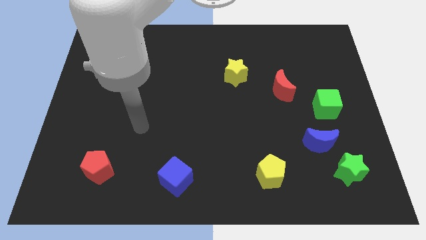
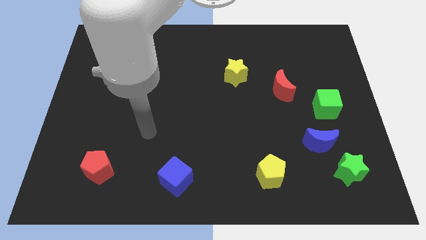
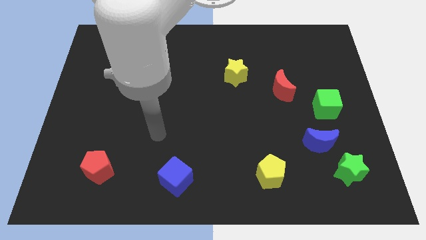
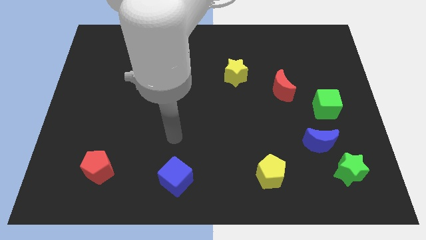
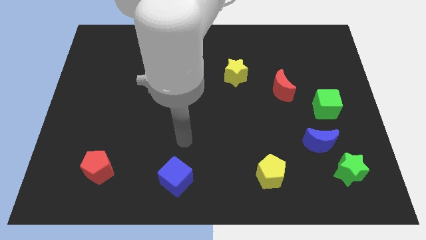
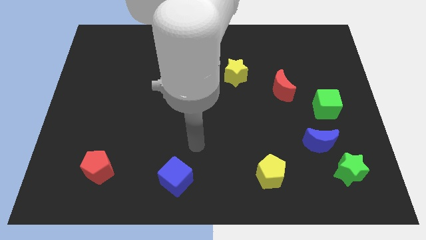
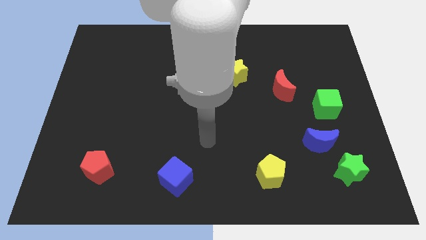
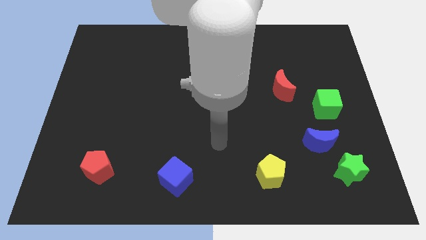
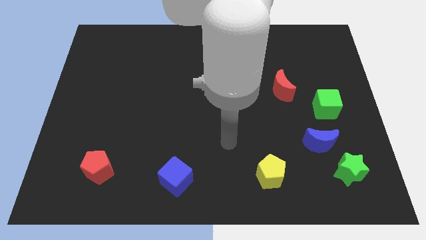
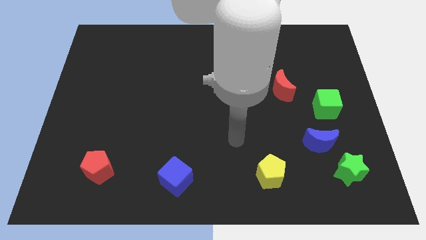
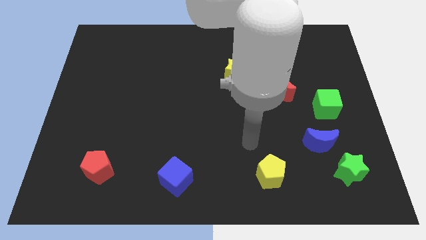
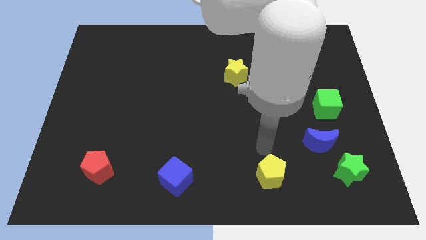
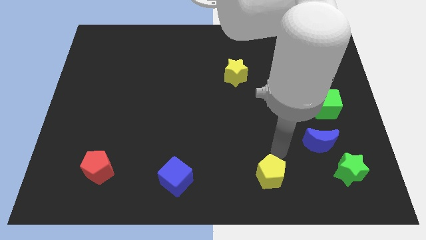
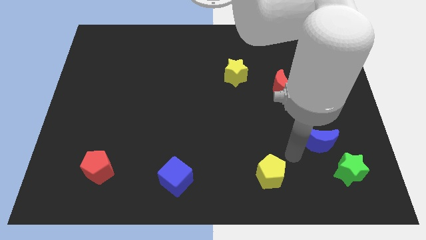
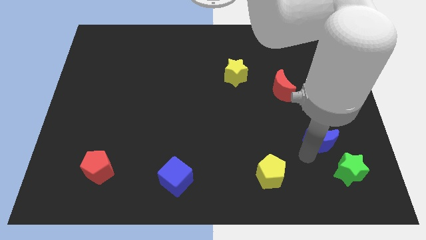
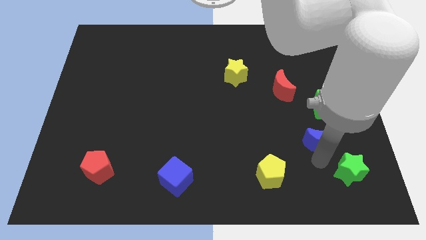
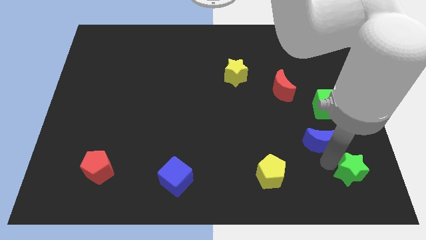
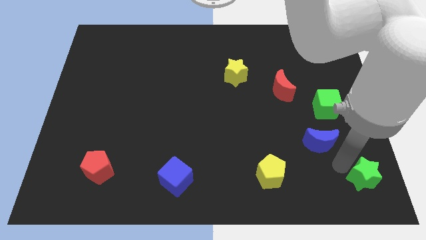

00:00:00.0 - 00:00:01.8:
pull the blue moon apart from the green star

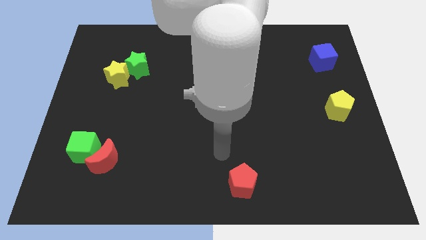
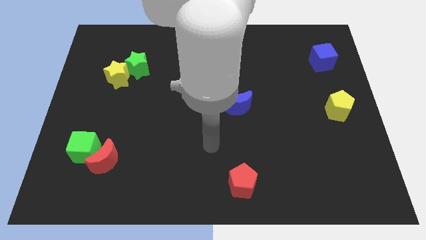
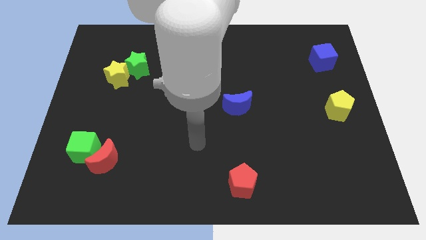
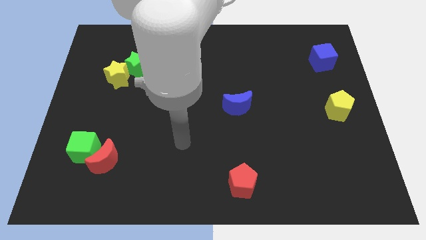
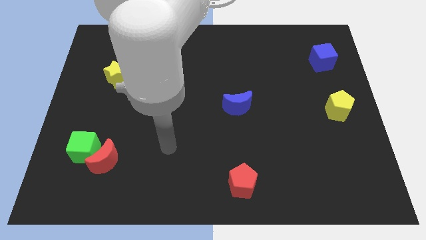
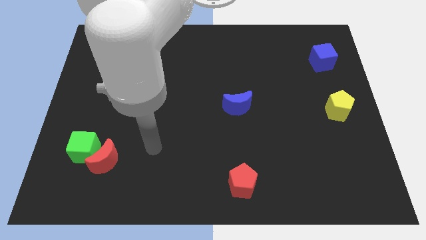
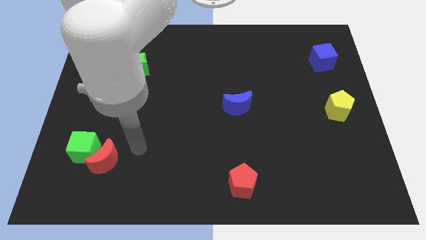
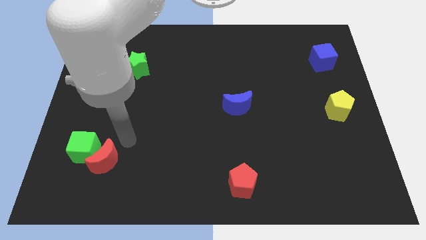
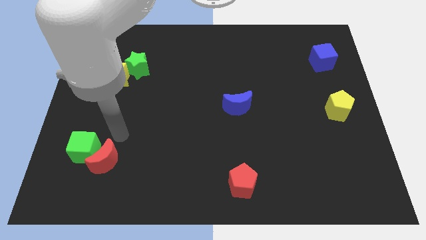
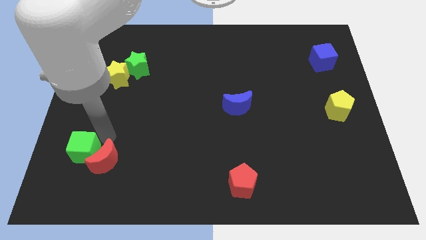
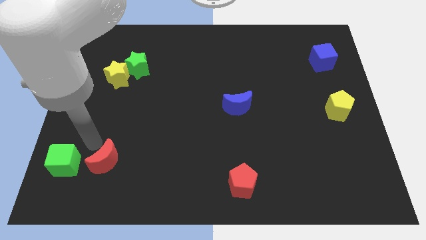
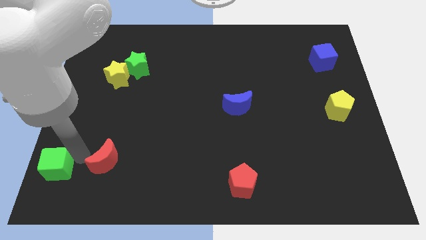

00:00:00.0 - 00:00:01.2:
separate the red moon from the green cube

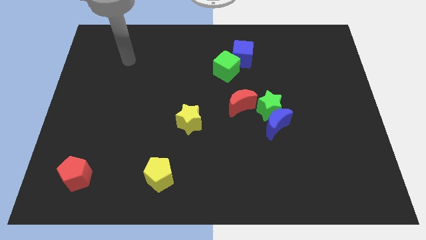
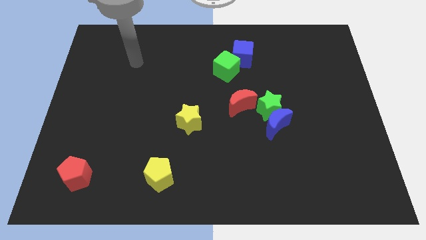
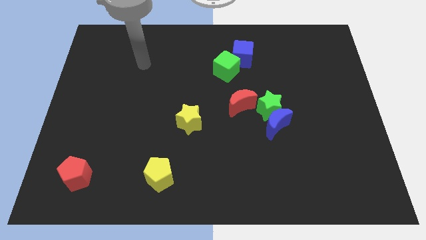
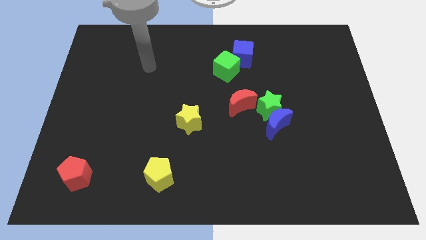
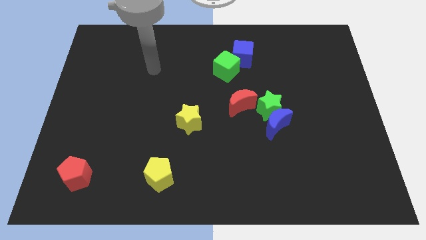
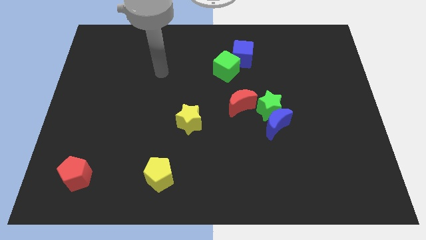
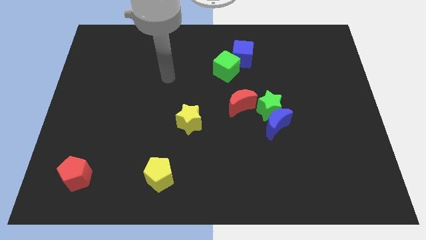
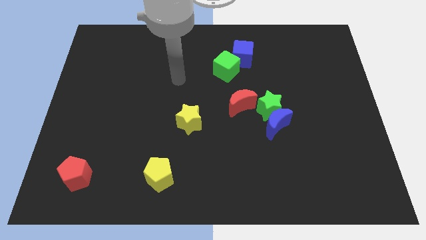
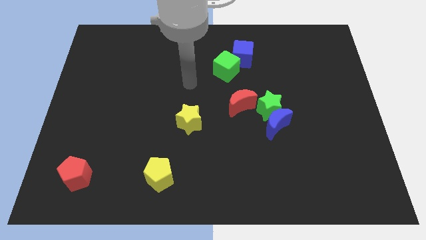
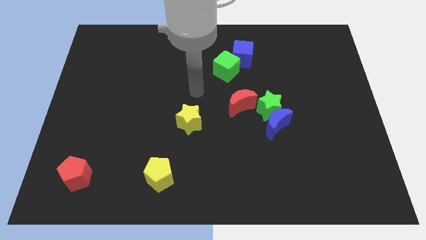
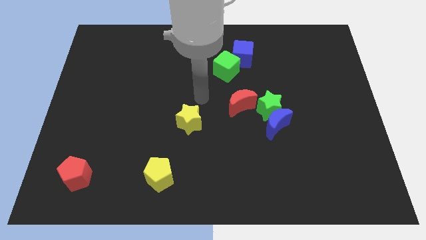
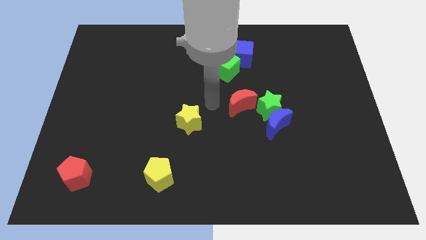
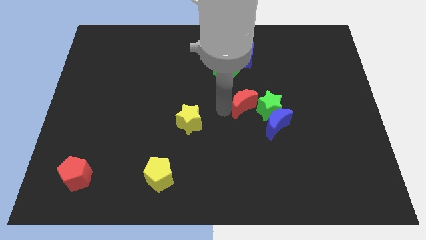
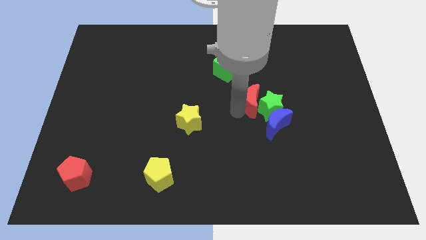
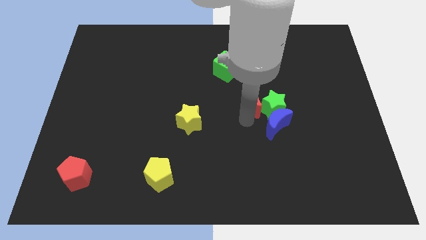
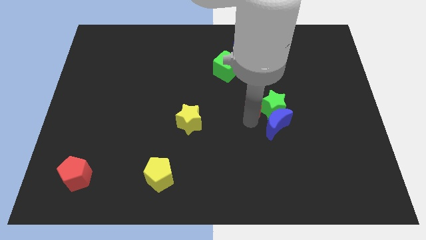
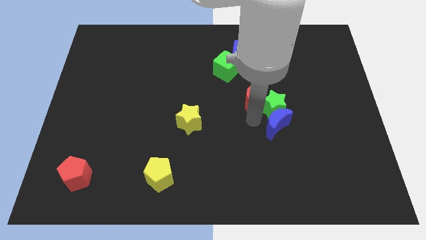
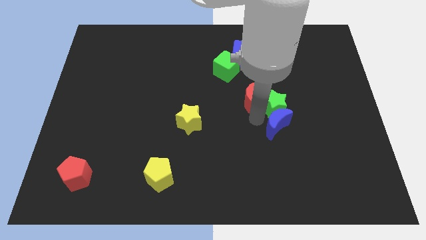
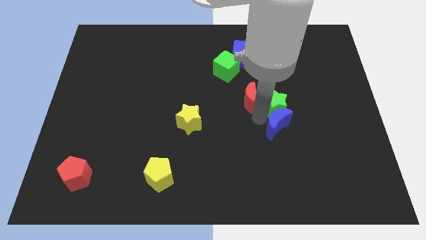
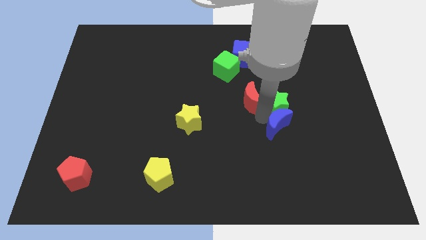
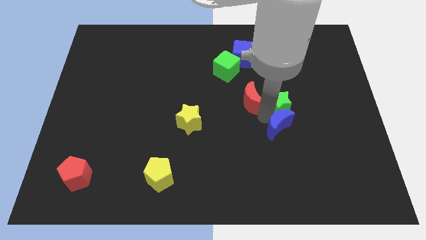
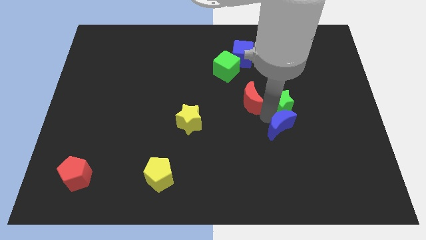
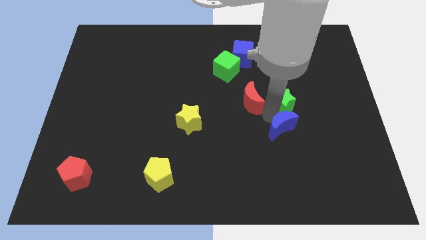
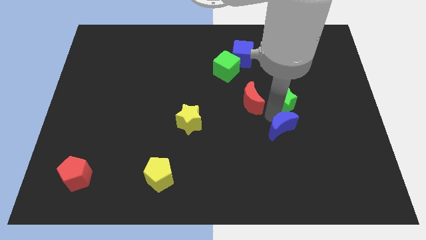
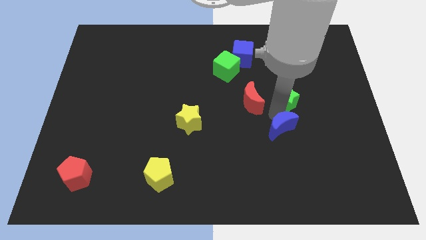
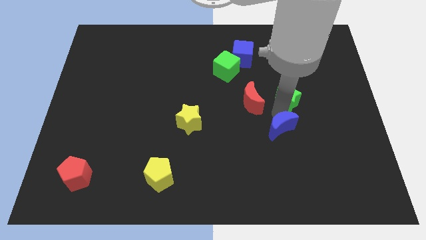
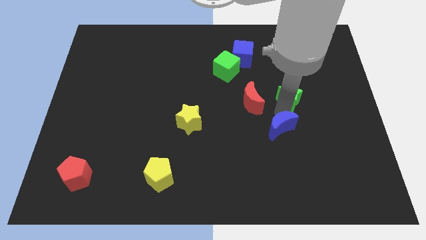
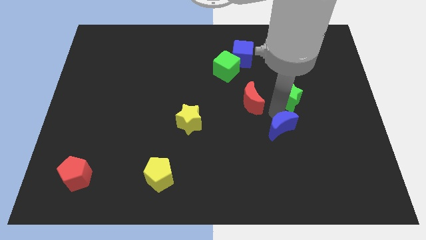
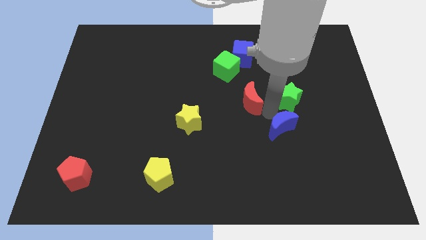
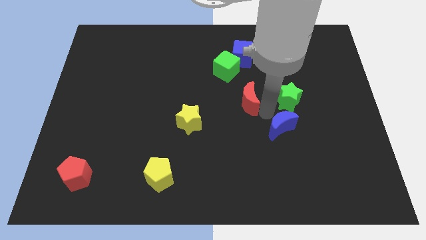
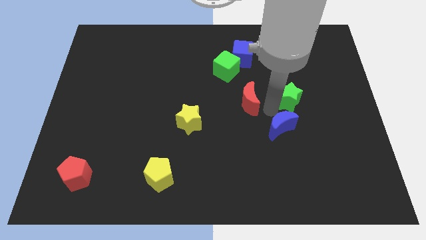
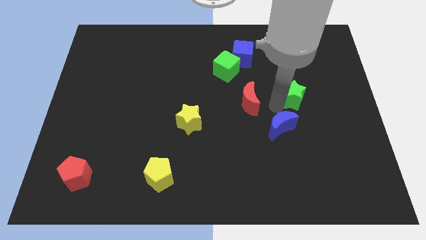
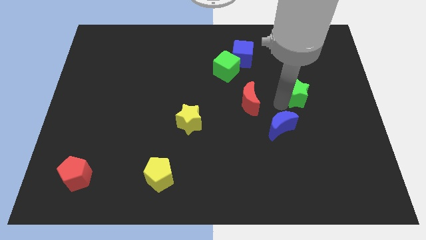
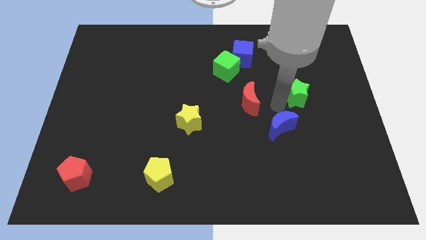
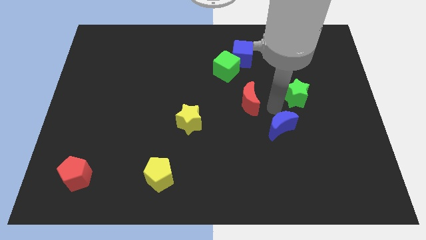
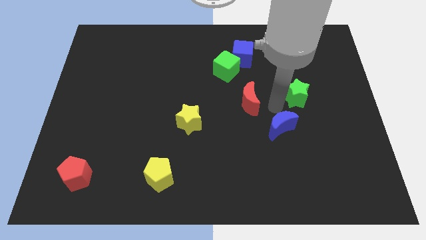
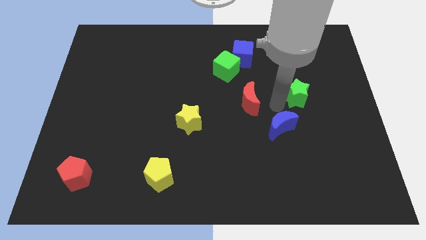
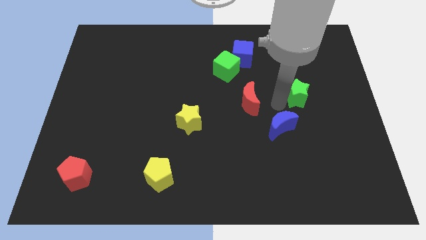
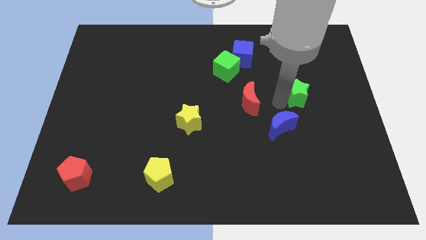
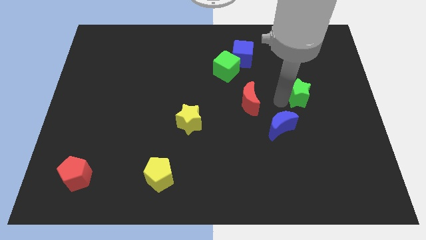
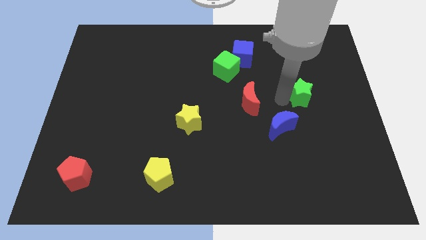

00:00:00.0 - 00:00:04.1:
separate the green star from the blue moon and red moon

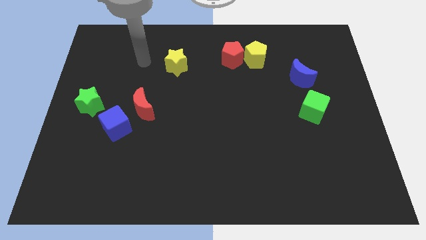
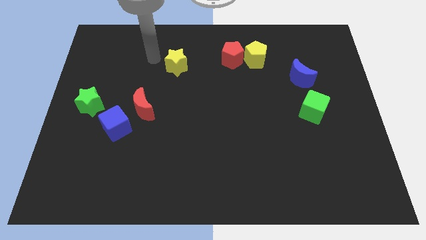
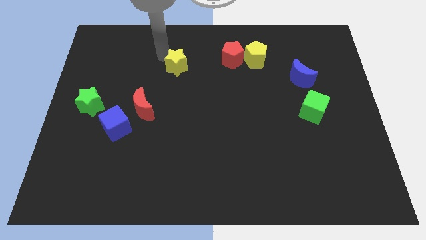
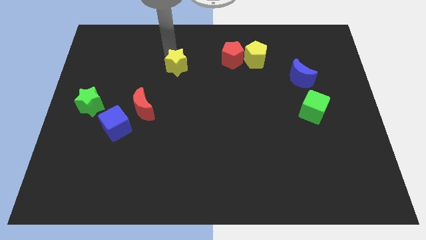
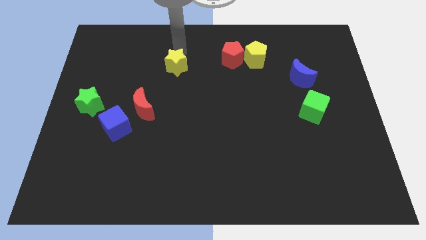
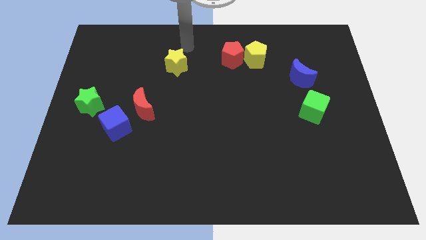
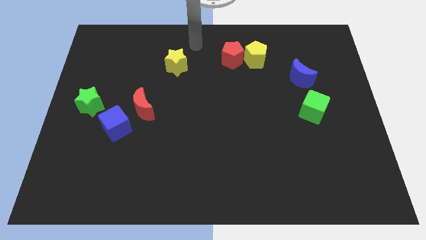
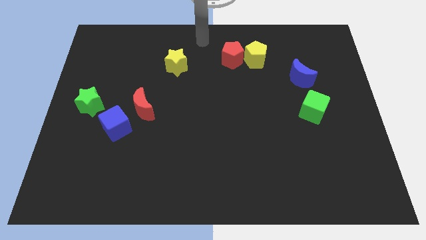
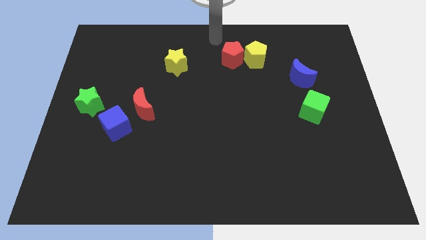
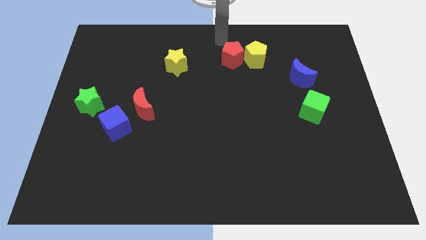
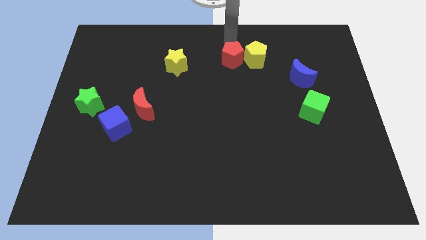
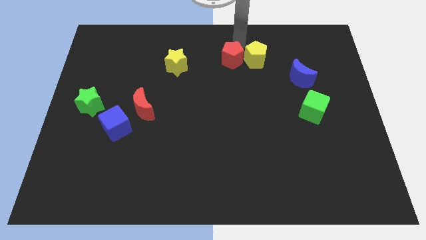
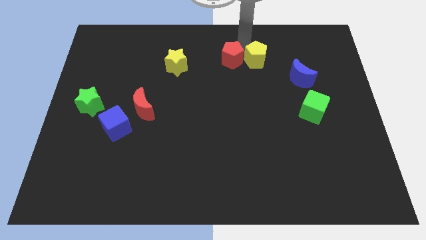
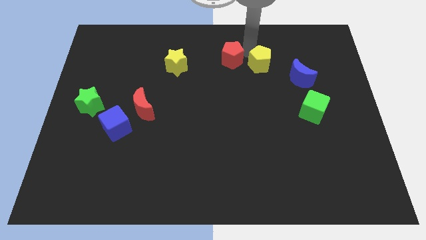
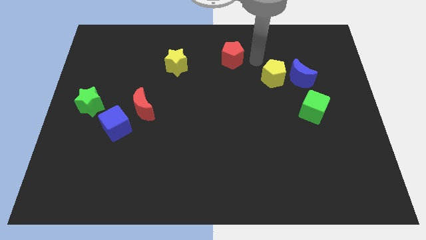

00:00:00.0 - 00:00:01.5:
move the red pentagon away from the yellow pentagon

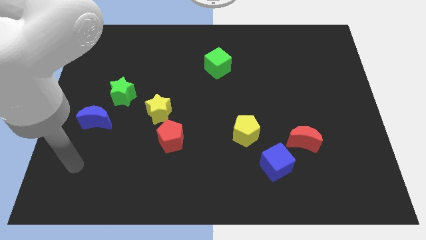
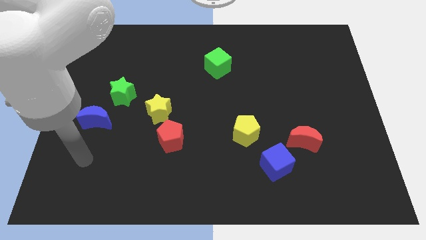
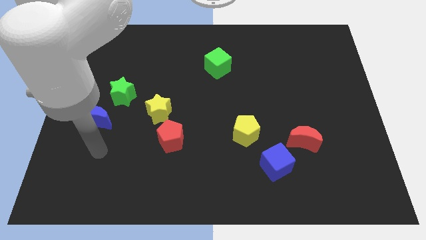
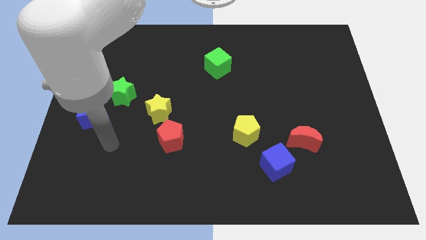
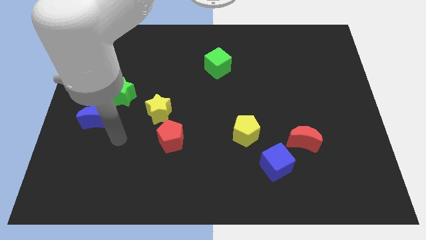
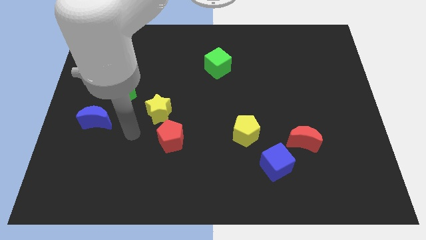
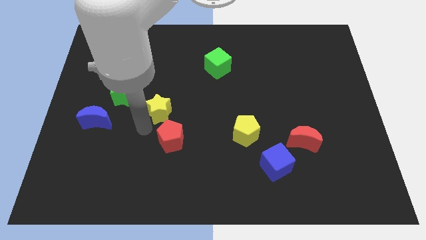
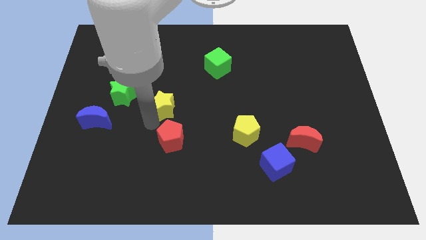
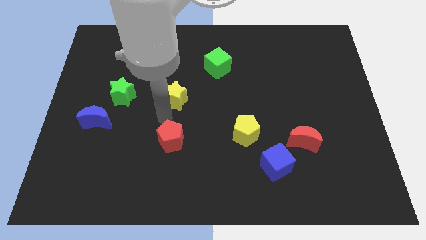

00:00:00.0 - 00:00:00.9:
separate the red pentagon from the yellow star
